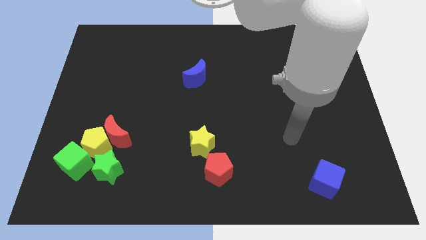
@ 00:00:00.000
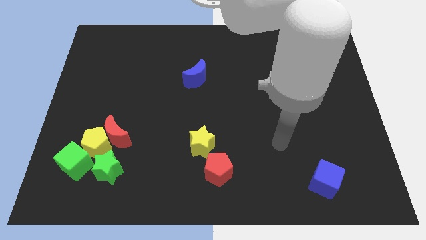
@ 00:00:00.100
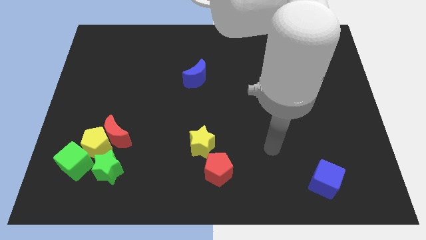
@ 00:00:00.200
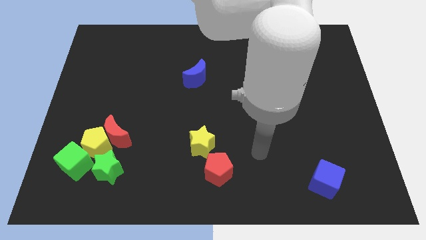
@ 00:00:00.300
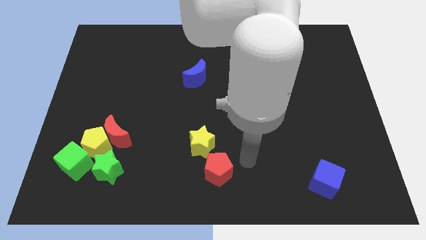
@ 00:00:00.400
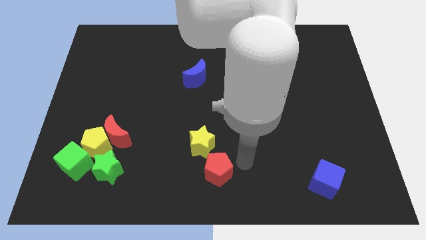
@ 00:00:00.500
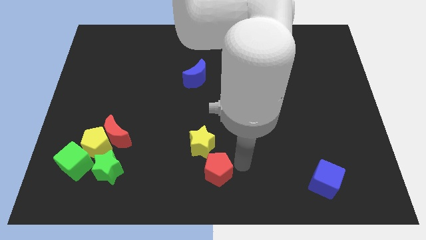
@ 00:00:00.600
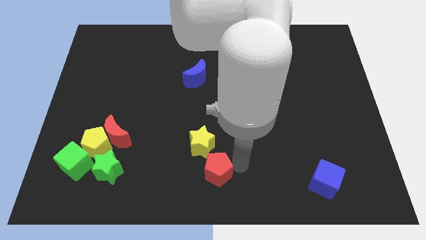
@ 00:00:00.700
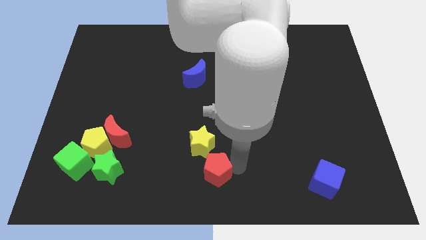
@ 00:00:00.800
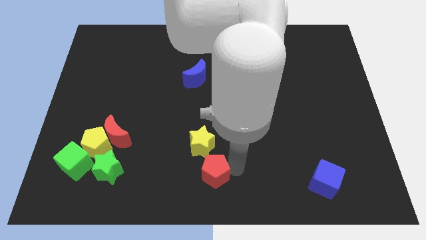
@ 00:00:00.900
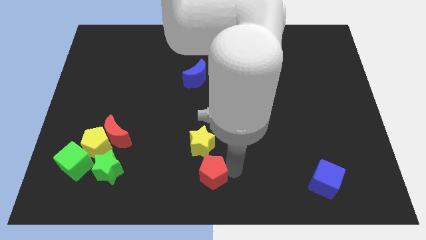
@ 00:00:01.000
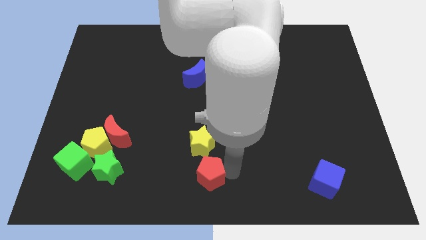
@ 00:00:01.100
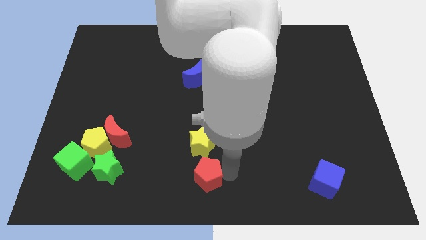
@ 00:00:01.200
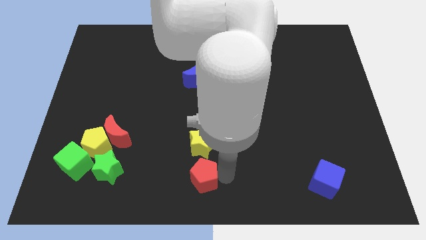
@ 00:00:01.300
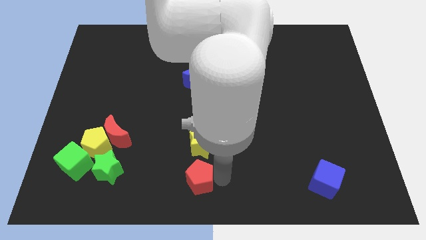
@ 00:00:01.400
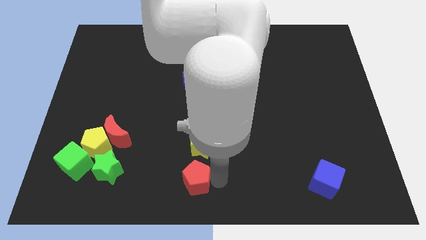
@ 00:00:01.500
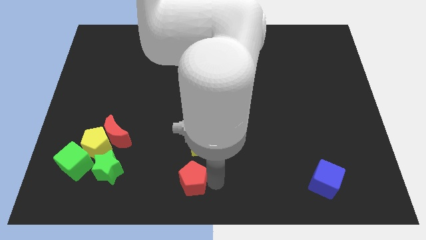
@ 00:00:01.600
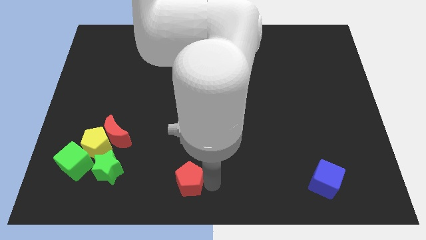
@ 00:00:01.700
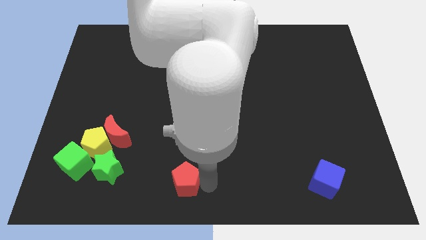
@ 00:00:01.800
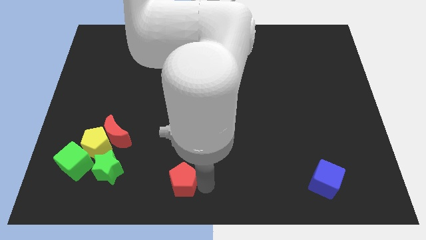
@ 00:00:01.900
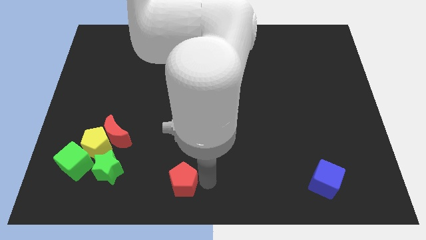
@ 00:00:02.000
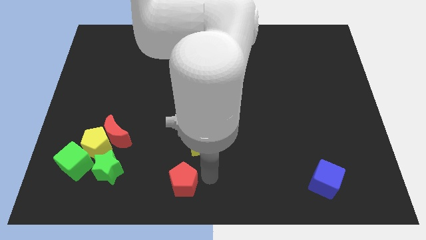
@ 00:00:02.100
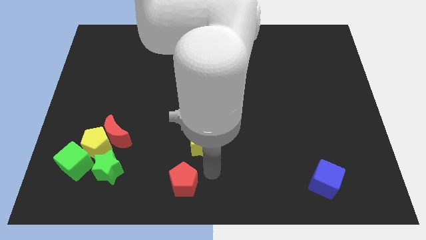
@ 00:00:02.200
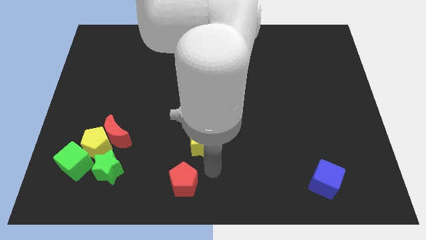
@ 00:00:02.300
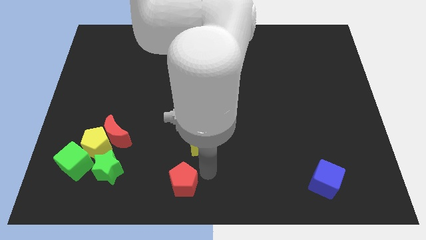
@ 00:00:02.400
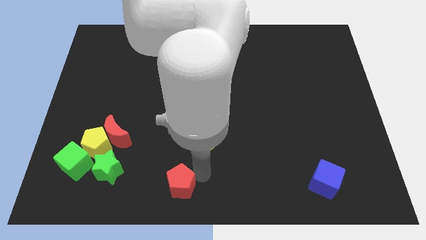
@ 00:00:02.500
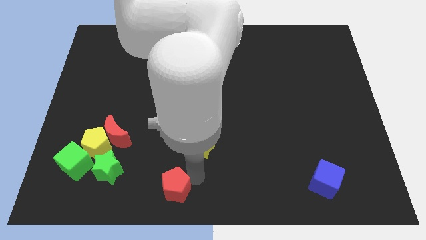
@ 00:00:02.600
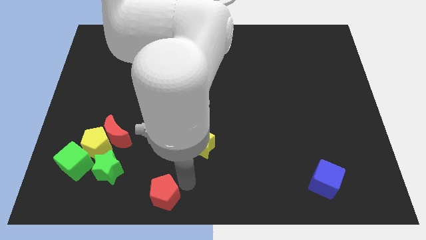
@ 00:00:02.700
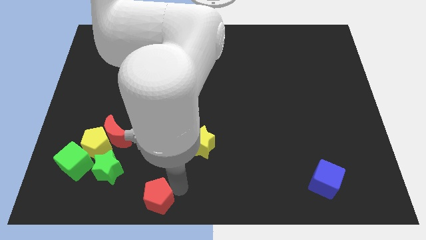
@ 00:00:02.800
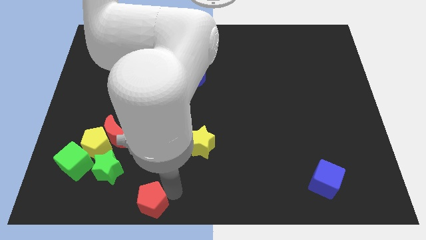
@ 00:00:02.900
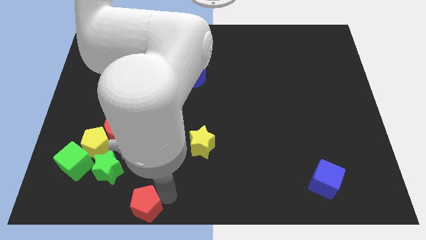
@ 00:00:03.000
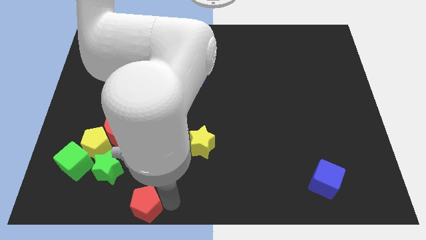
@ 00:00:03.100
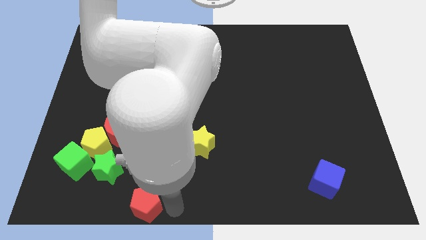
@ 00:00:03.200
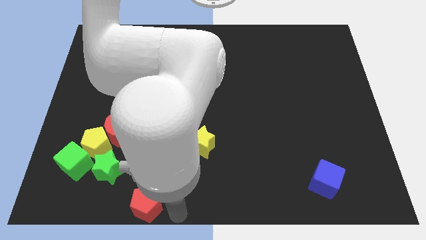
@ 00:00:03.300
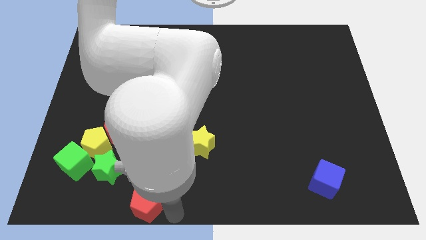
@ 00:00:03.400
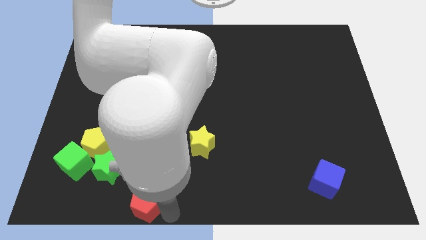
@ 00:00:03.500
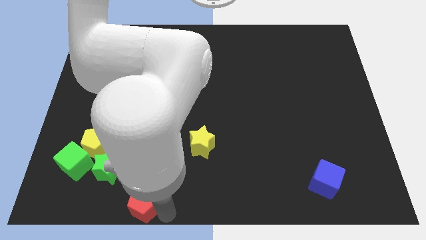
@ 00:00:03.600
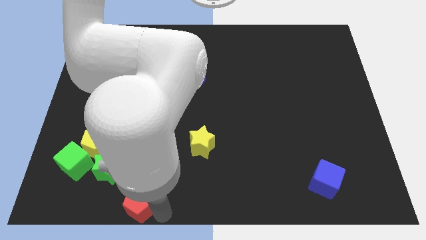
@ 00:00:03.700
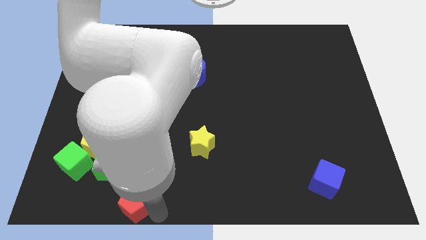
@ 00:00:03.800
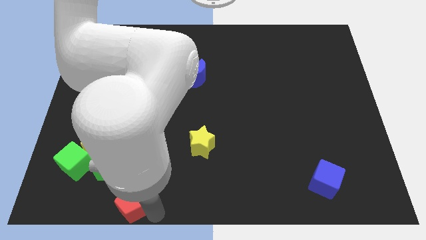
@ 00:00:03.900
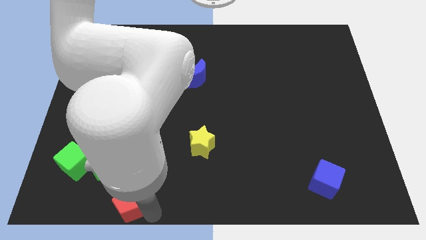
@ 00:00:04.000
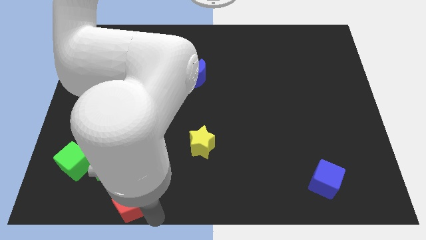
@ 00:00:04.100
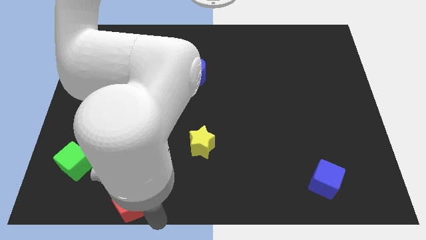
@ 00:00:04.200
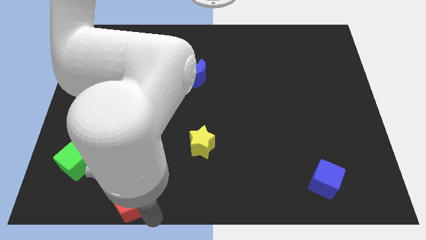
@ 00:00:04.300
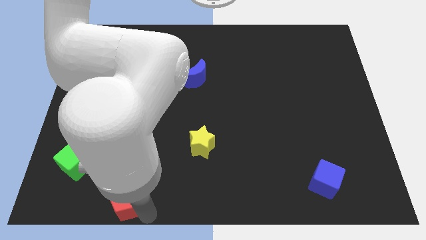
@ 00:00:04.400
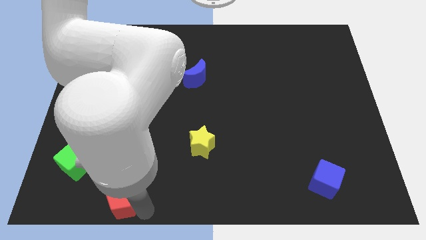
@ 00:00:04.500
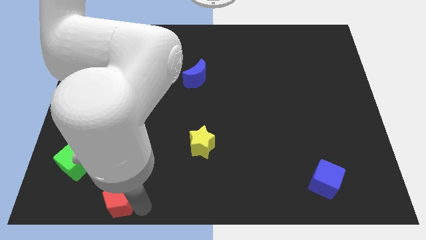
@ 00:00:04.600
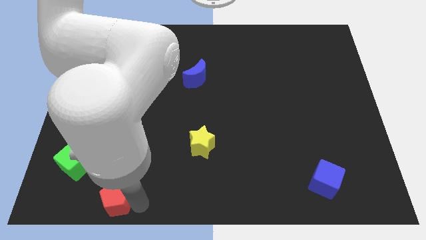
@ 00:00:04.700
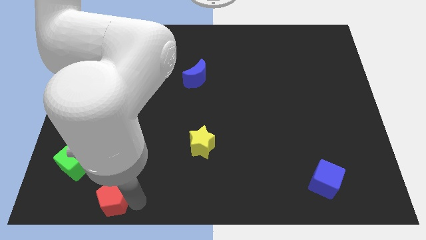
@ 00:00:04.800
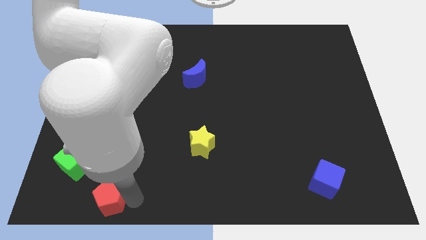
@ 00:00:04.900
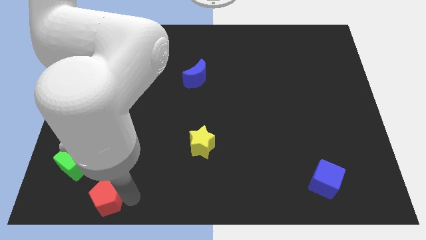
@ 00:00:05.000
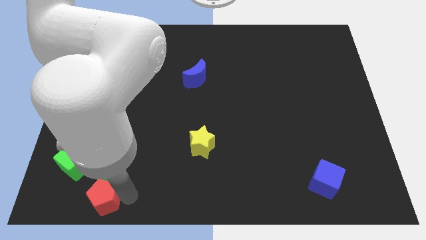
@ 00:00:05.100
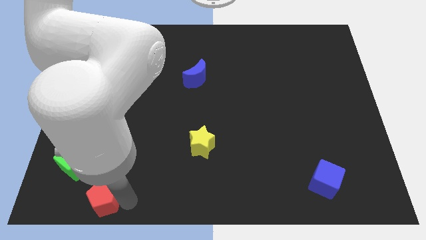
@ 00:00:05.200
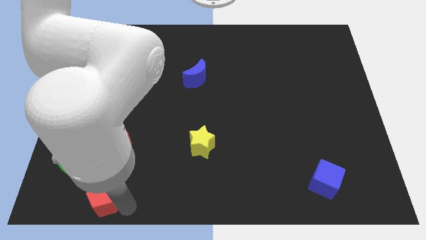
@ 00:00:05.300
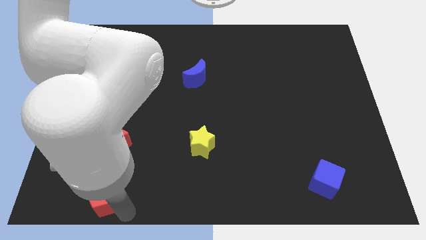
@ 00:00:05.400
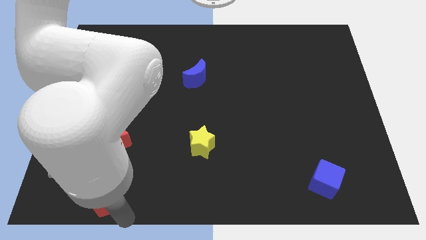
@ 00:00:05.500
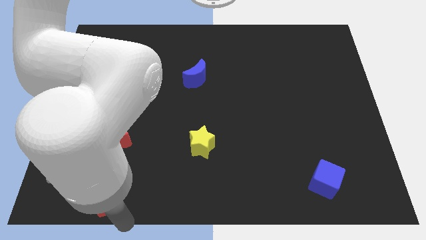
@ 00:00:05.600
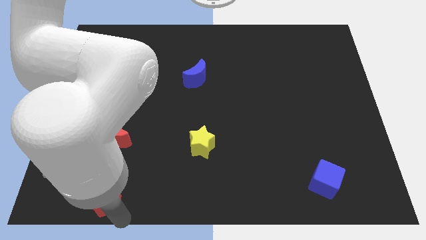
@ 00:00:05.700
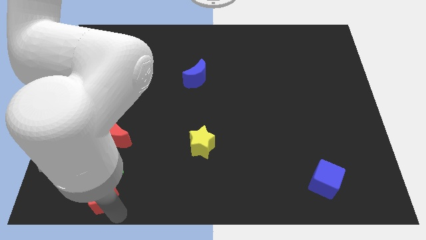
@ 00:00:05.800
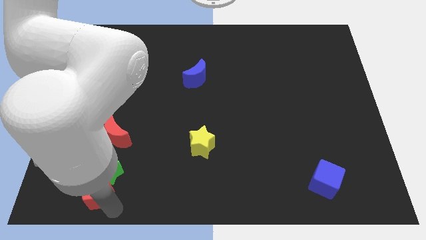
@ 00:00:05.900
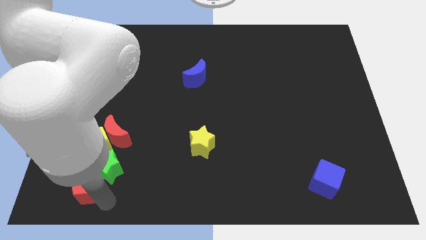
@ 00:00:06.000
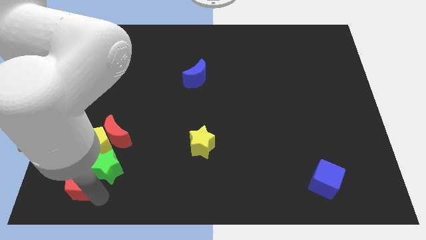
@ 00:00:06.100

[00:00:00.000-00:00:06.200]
slide the red pentagon close to the green cube

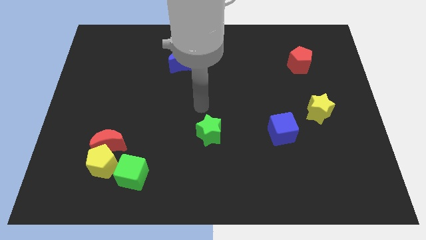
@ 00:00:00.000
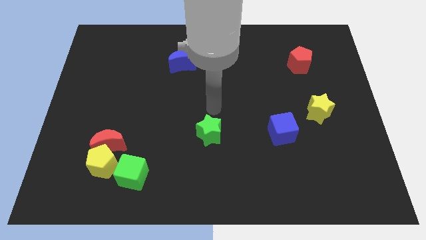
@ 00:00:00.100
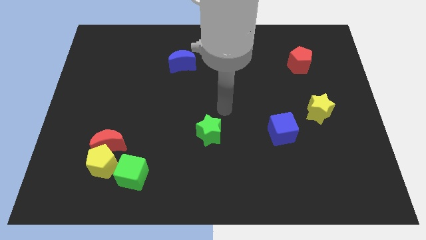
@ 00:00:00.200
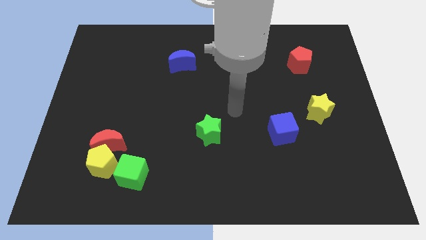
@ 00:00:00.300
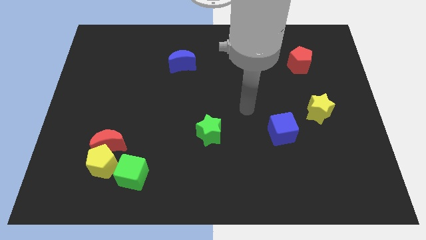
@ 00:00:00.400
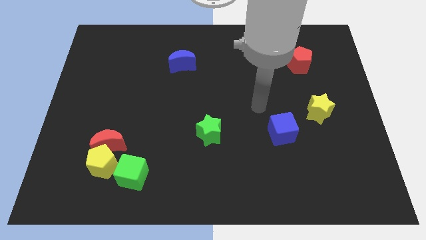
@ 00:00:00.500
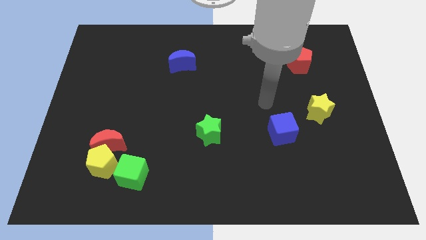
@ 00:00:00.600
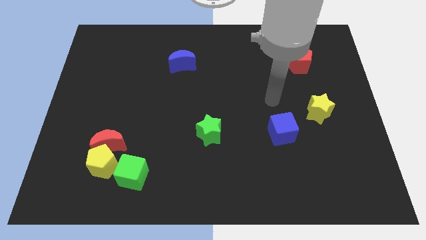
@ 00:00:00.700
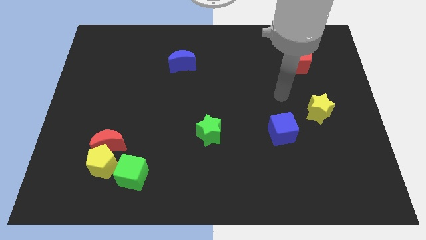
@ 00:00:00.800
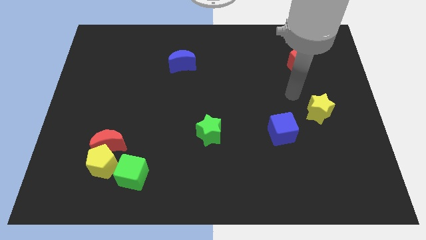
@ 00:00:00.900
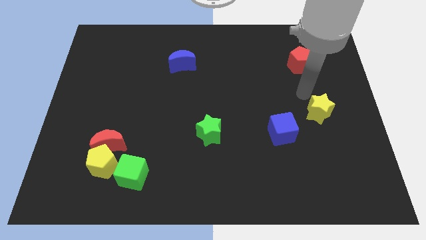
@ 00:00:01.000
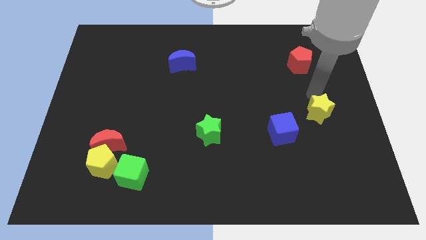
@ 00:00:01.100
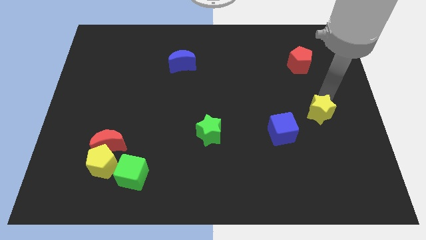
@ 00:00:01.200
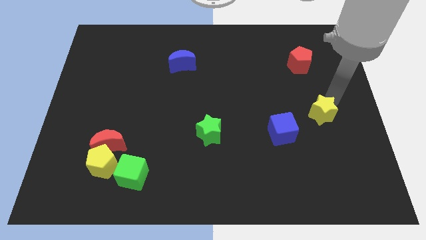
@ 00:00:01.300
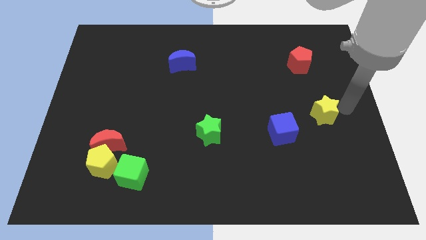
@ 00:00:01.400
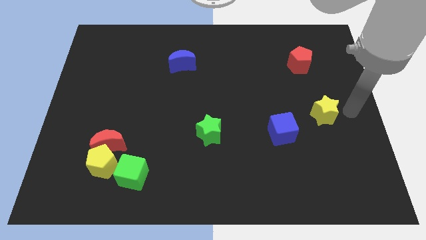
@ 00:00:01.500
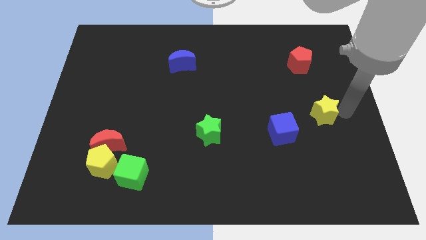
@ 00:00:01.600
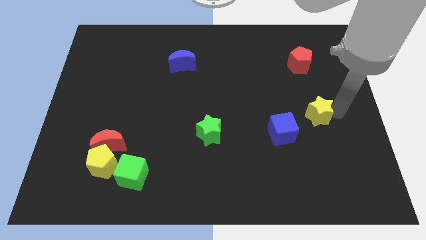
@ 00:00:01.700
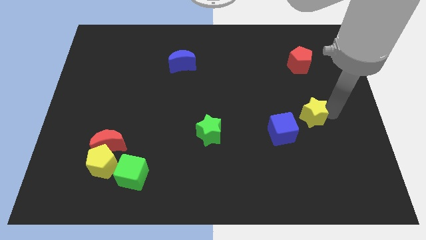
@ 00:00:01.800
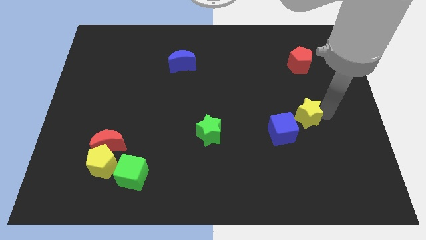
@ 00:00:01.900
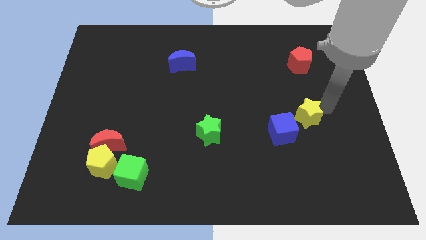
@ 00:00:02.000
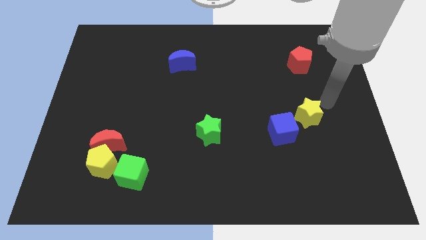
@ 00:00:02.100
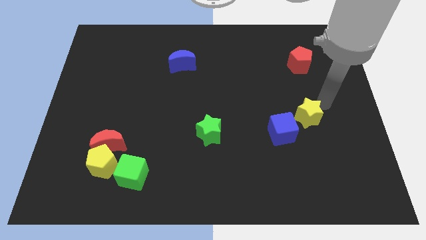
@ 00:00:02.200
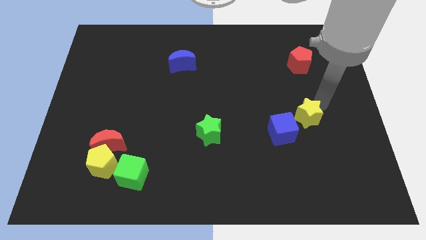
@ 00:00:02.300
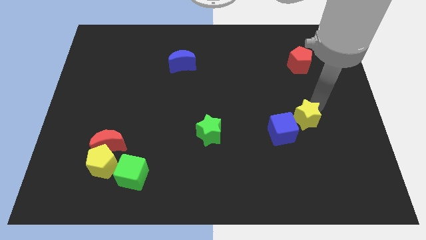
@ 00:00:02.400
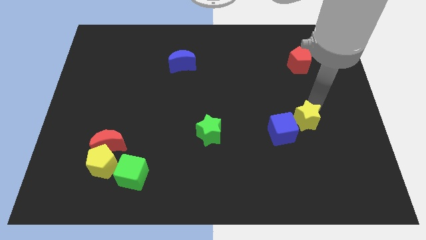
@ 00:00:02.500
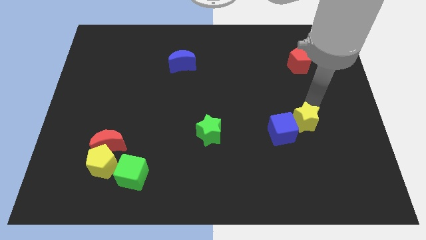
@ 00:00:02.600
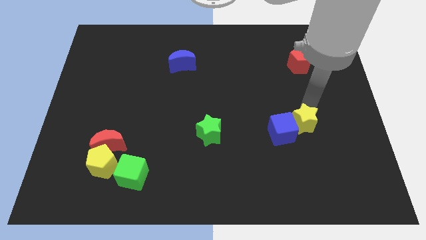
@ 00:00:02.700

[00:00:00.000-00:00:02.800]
move the yellow star towards the blue cube
